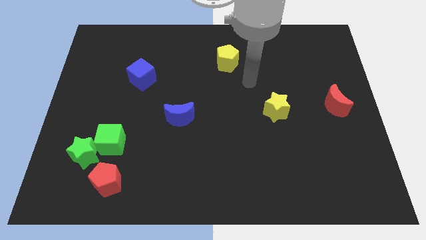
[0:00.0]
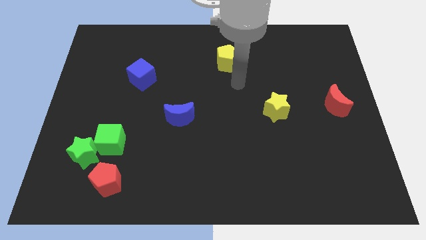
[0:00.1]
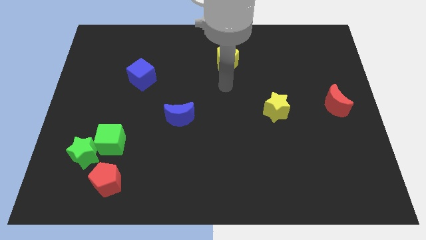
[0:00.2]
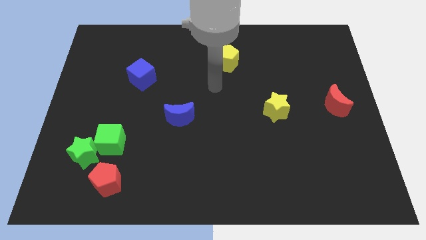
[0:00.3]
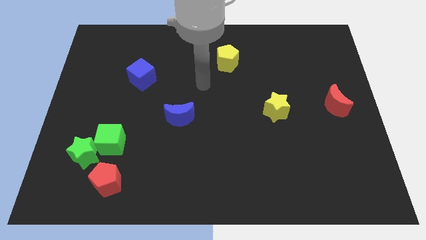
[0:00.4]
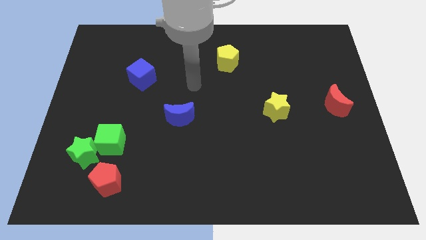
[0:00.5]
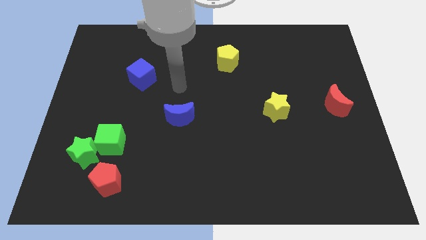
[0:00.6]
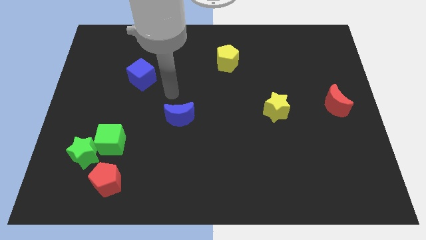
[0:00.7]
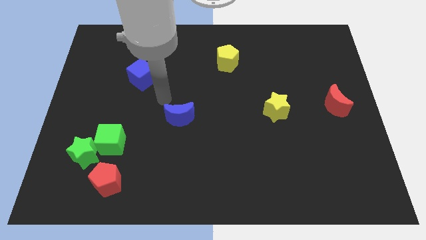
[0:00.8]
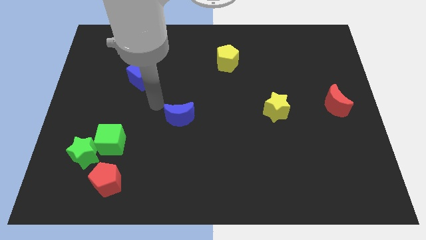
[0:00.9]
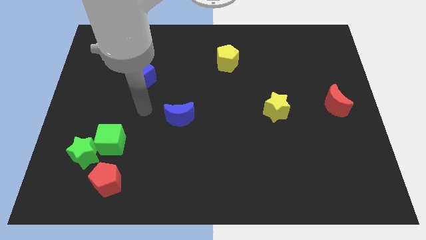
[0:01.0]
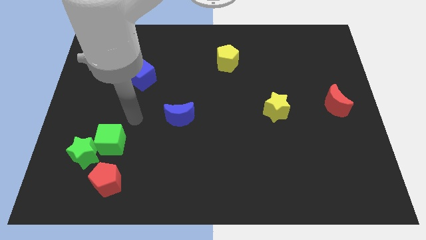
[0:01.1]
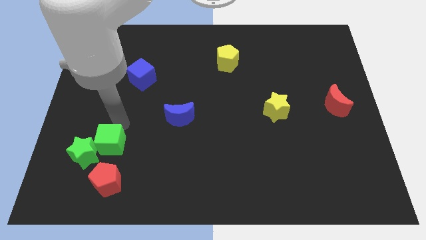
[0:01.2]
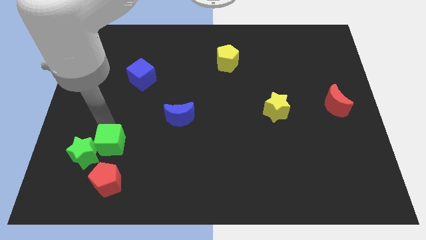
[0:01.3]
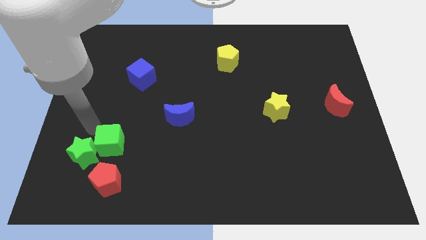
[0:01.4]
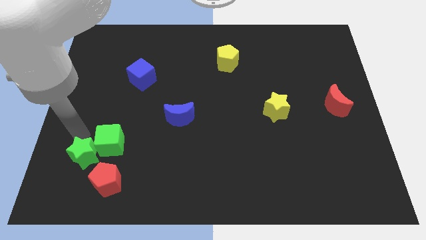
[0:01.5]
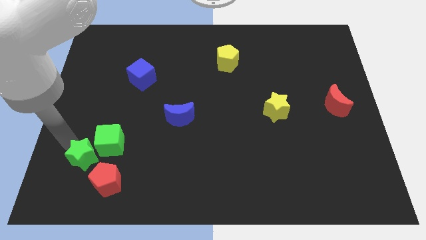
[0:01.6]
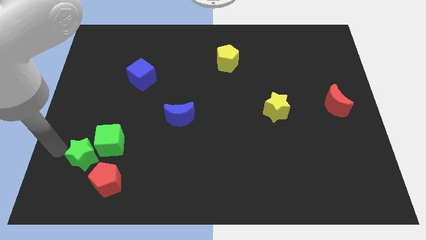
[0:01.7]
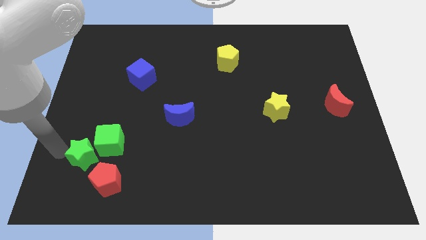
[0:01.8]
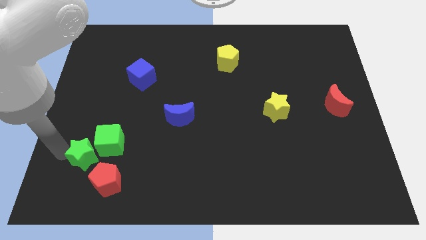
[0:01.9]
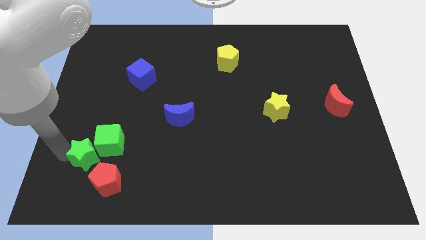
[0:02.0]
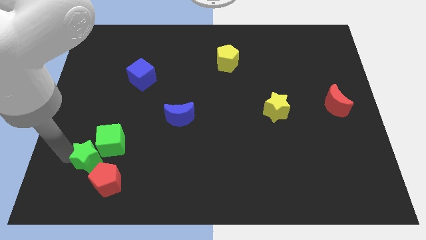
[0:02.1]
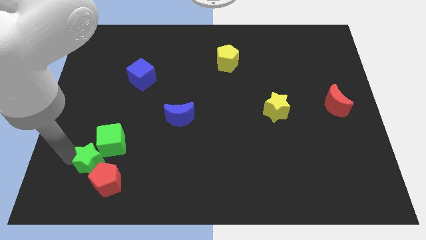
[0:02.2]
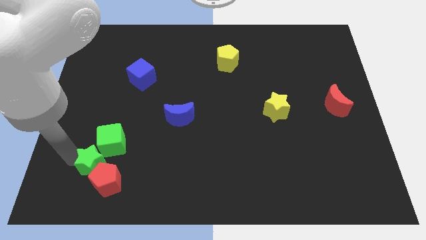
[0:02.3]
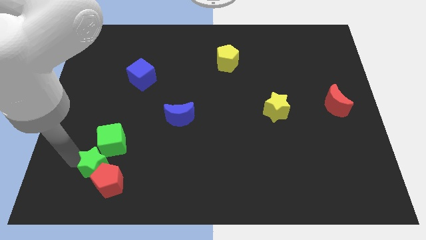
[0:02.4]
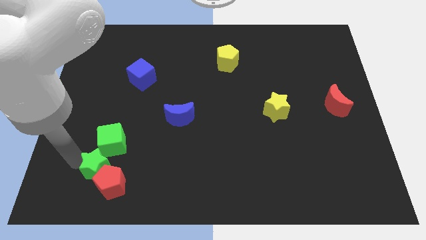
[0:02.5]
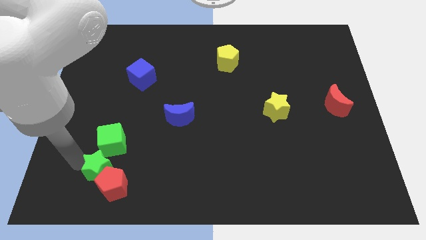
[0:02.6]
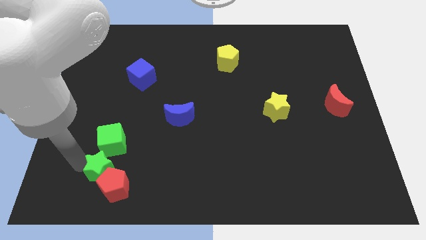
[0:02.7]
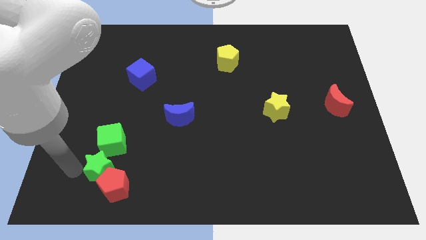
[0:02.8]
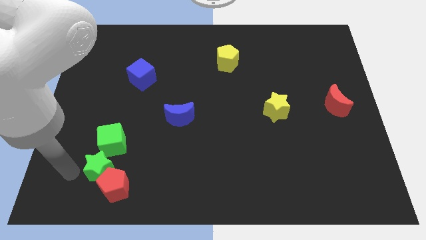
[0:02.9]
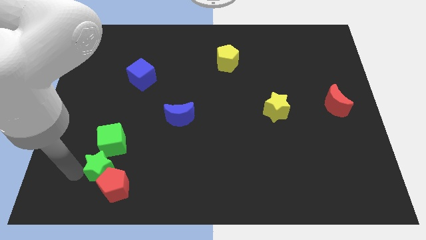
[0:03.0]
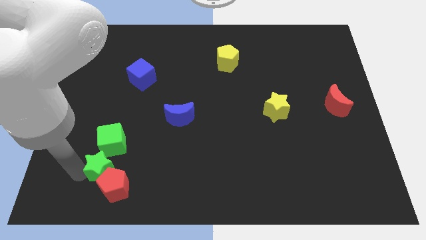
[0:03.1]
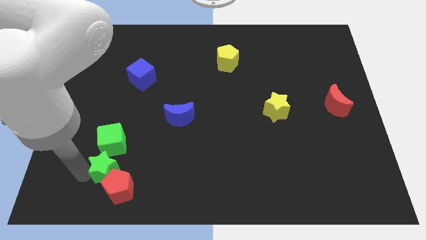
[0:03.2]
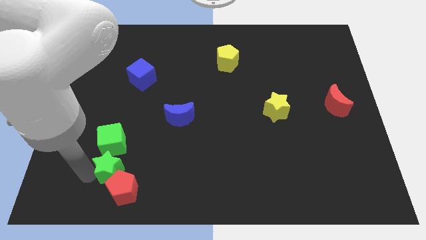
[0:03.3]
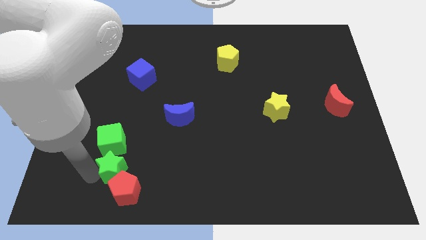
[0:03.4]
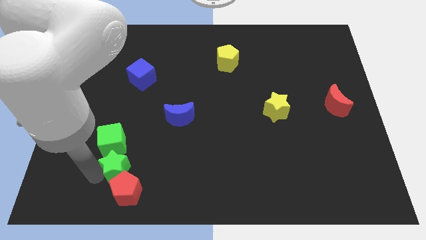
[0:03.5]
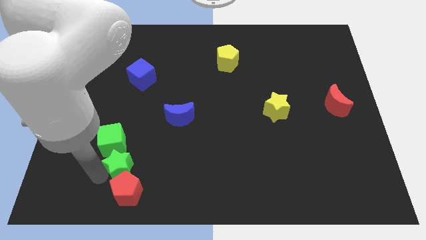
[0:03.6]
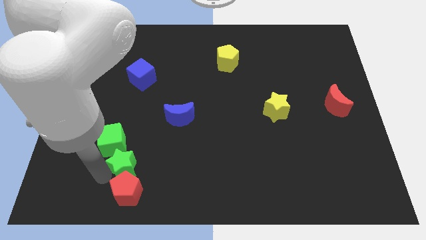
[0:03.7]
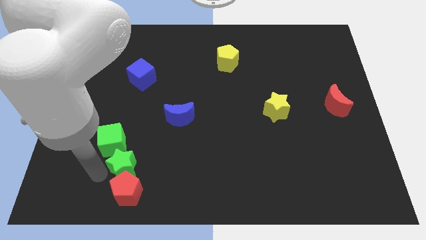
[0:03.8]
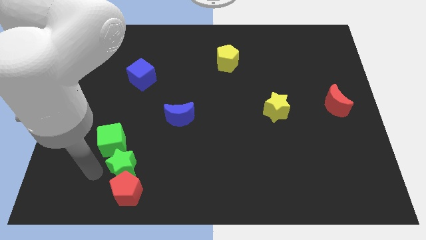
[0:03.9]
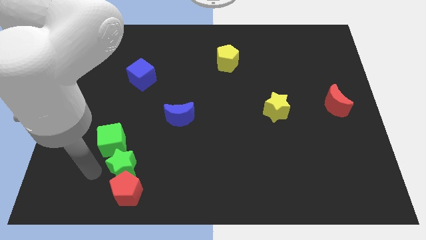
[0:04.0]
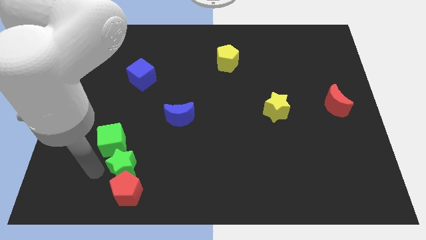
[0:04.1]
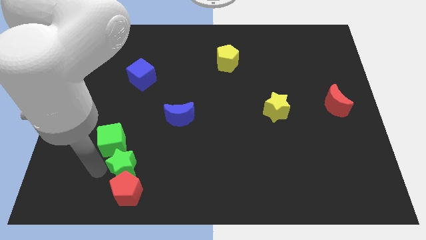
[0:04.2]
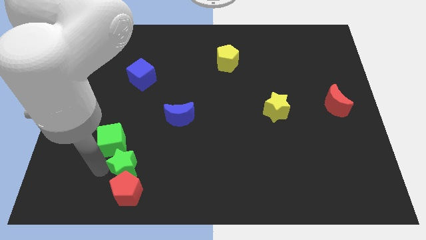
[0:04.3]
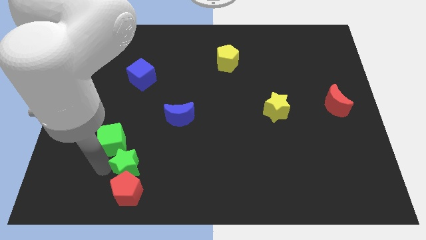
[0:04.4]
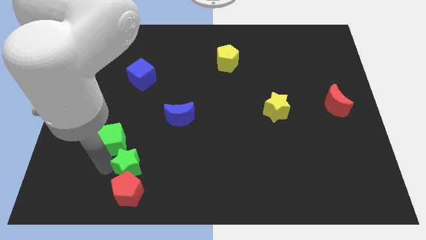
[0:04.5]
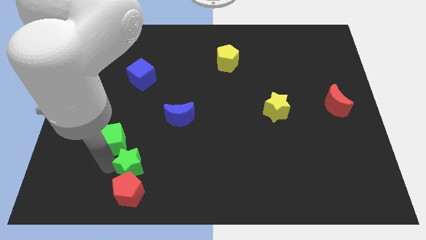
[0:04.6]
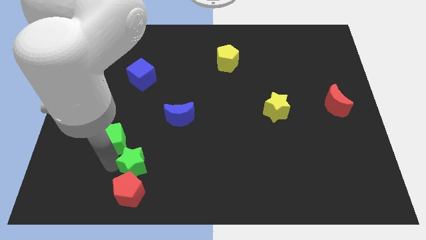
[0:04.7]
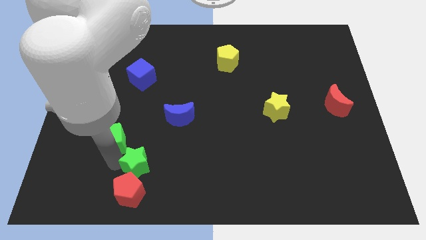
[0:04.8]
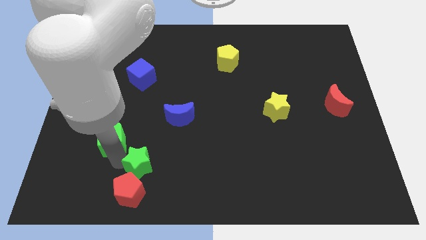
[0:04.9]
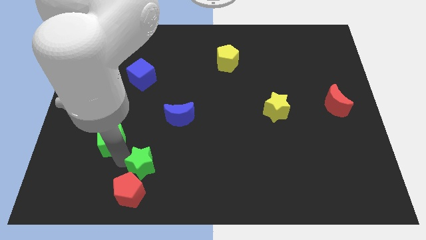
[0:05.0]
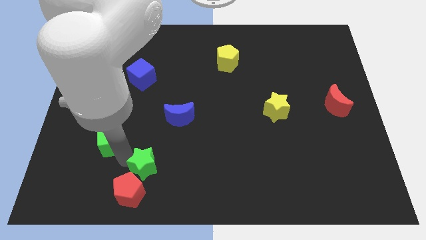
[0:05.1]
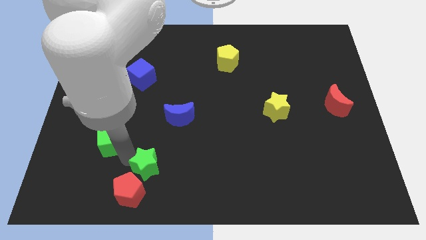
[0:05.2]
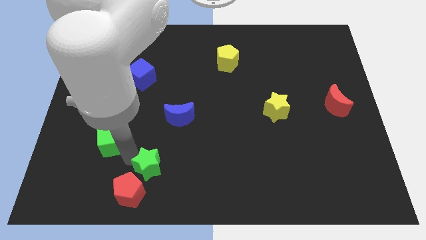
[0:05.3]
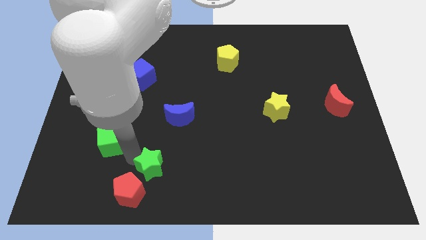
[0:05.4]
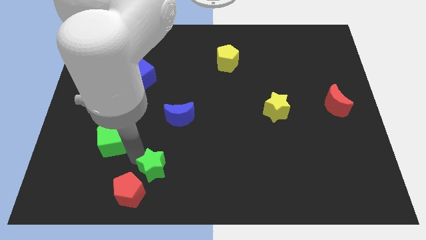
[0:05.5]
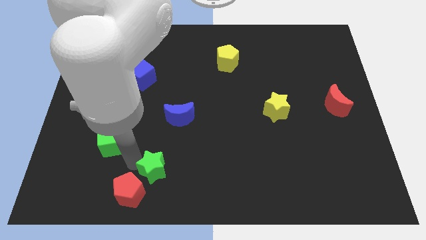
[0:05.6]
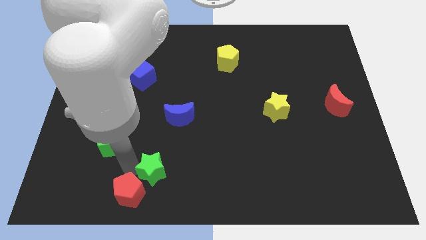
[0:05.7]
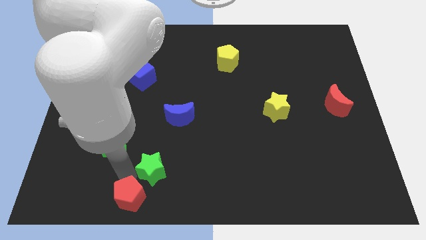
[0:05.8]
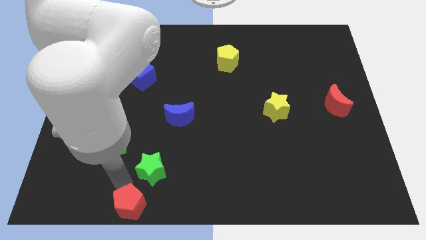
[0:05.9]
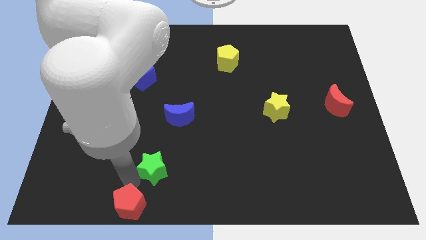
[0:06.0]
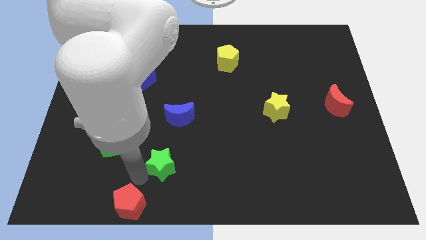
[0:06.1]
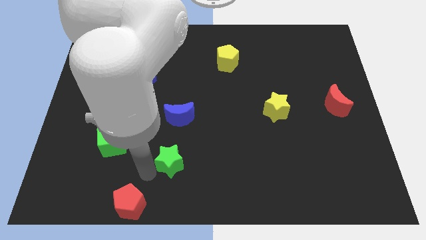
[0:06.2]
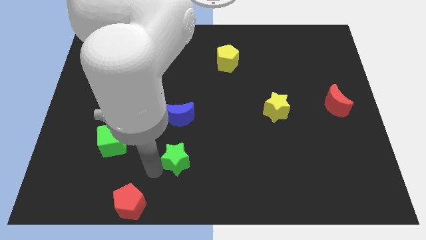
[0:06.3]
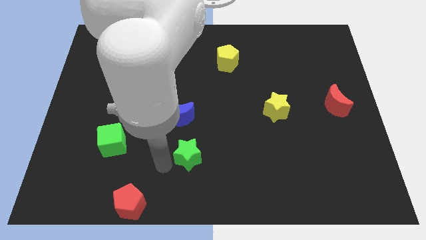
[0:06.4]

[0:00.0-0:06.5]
move the green star right

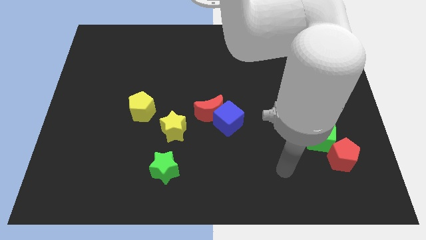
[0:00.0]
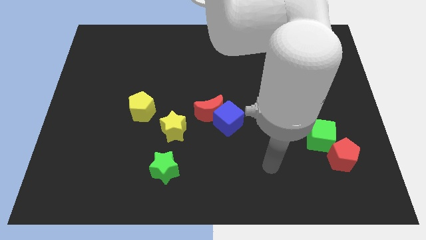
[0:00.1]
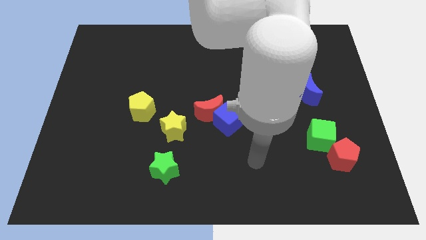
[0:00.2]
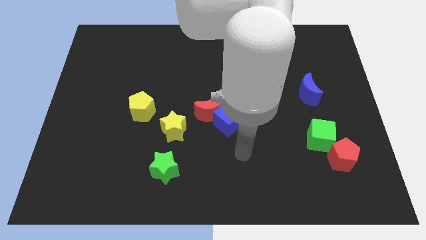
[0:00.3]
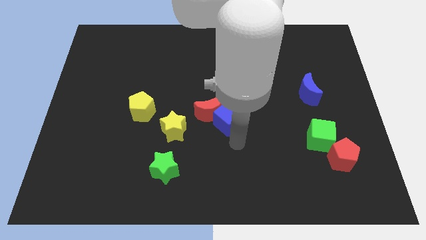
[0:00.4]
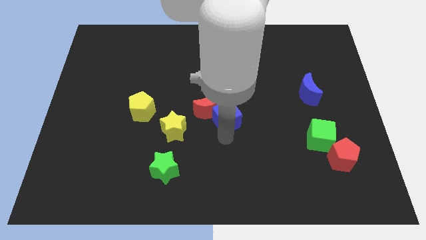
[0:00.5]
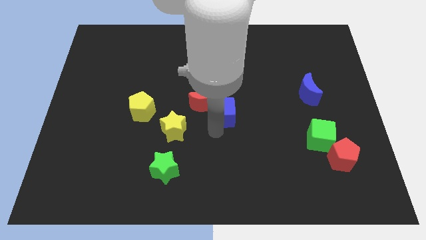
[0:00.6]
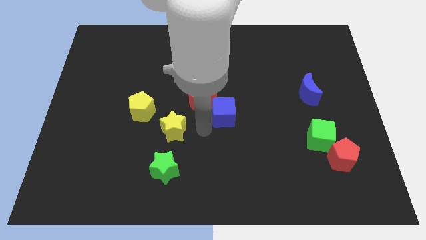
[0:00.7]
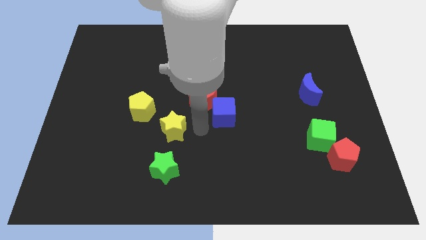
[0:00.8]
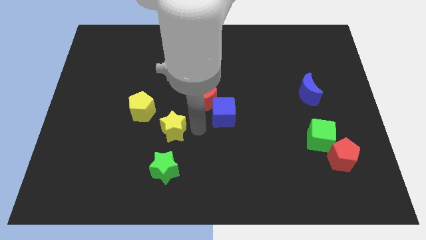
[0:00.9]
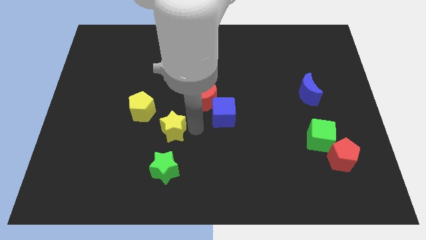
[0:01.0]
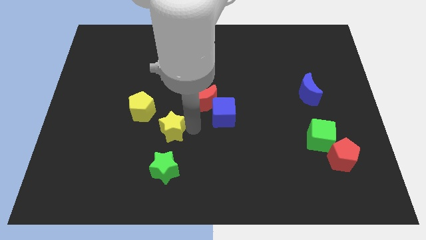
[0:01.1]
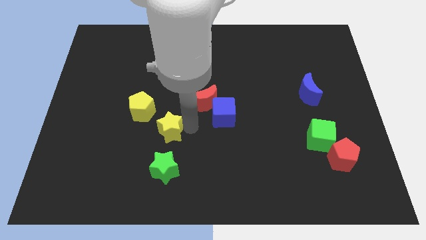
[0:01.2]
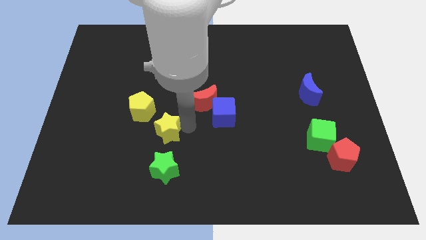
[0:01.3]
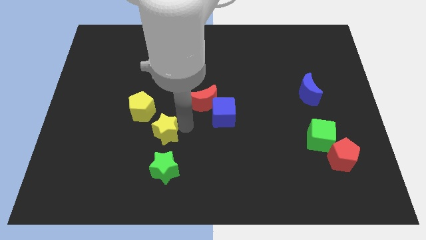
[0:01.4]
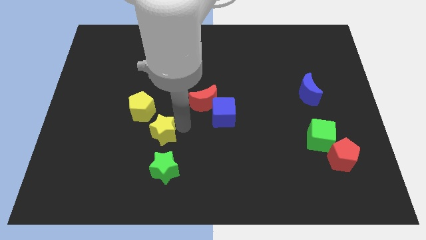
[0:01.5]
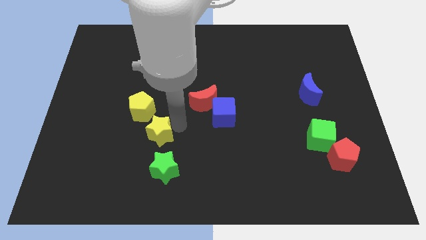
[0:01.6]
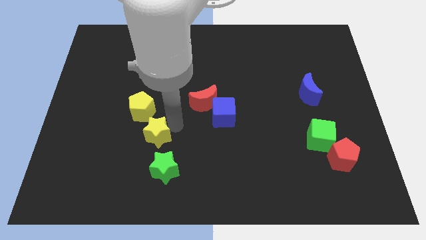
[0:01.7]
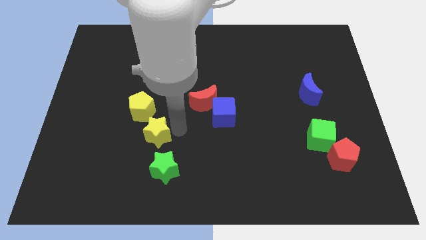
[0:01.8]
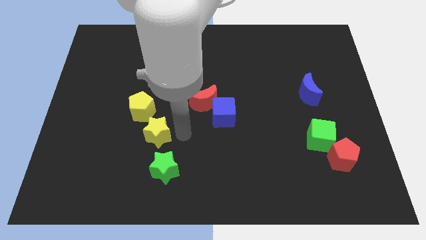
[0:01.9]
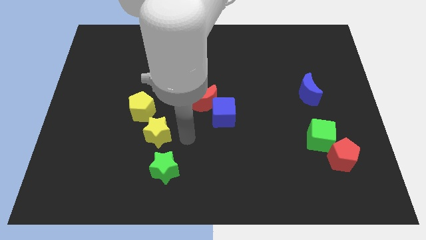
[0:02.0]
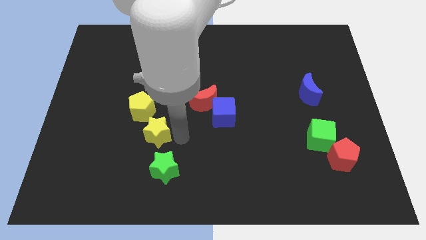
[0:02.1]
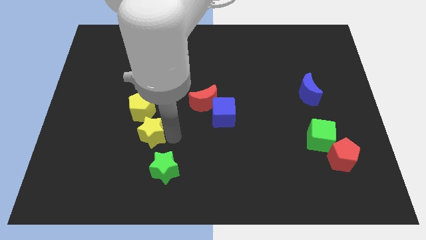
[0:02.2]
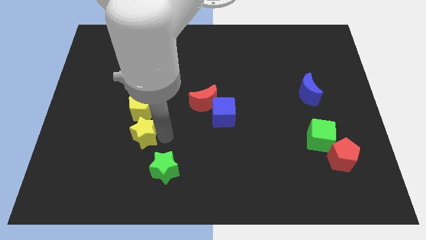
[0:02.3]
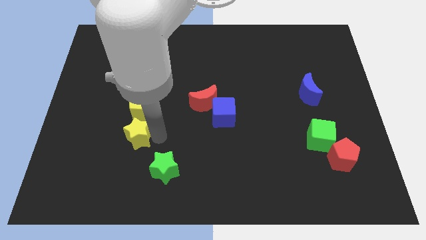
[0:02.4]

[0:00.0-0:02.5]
move the yellow star a bit left
